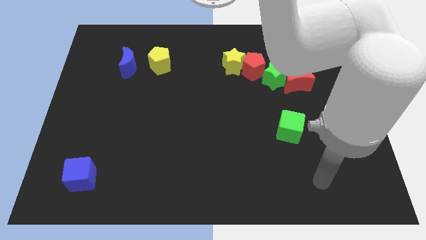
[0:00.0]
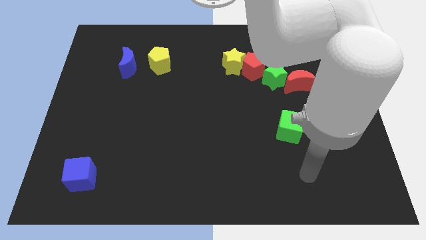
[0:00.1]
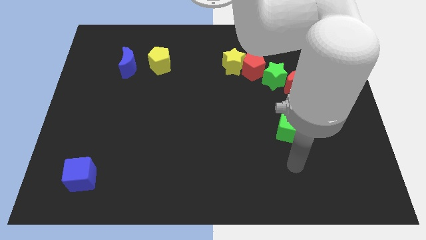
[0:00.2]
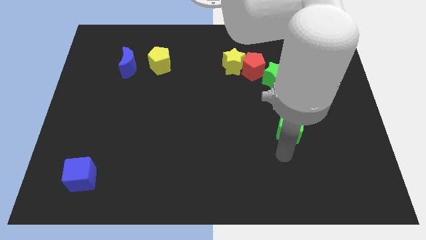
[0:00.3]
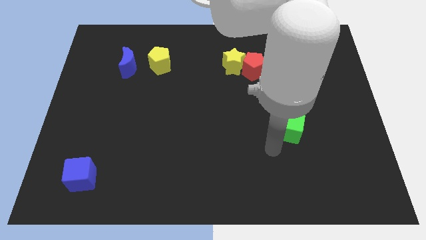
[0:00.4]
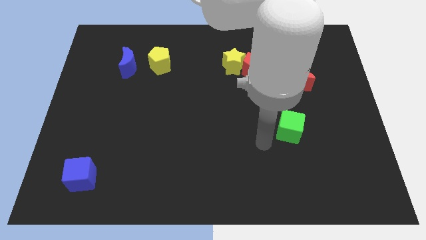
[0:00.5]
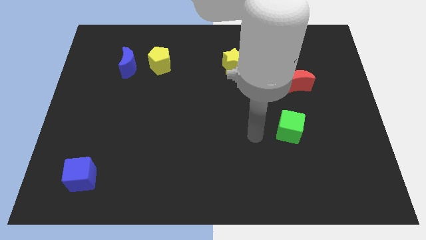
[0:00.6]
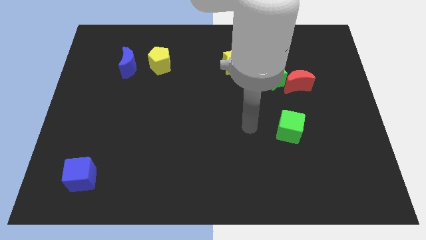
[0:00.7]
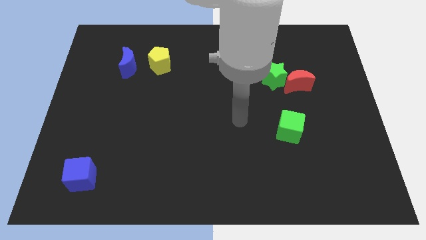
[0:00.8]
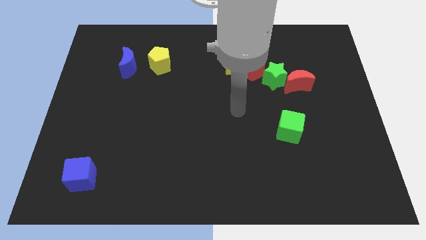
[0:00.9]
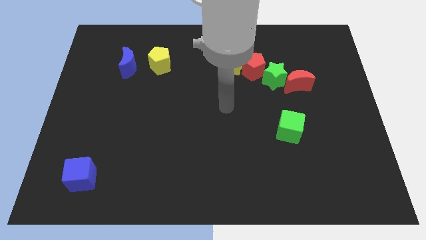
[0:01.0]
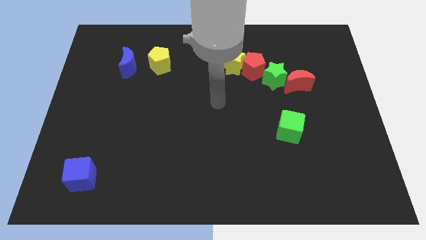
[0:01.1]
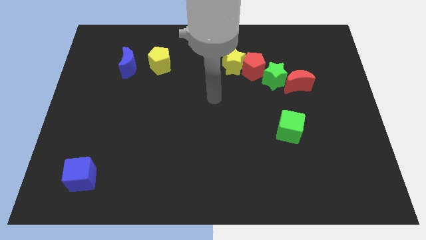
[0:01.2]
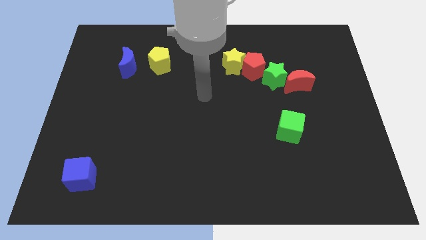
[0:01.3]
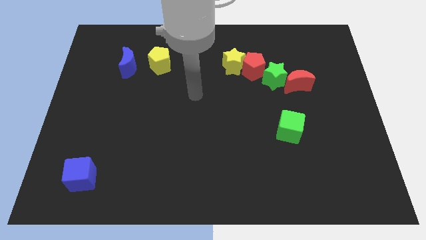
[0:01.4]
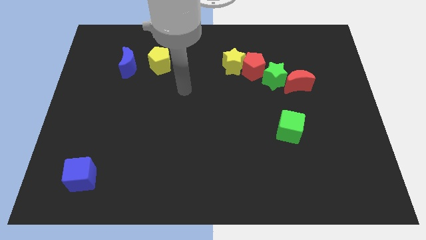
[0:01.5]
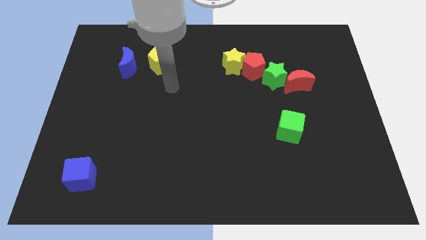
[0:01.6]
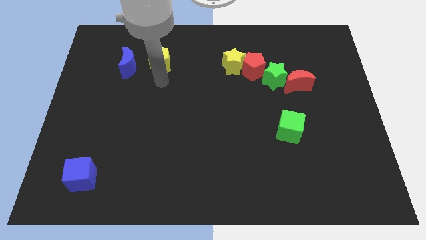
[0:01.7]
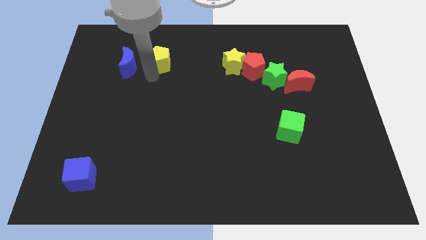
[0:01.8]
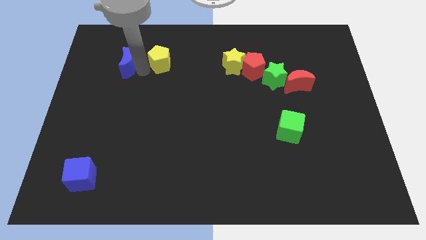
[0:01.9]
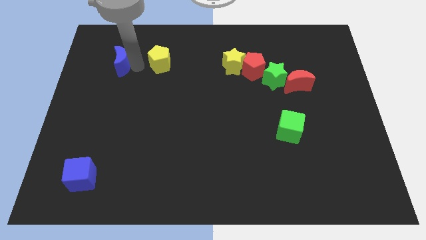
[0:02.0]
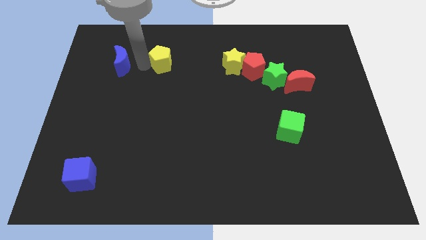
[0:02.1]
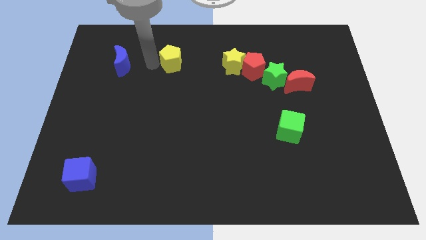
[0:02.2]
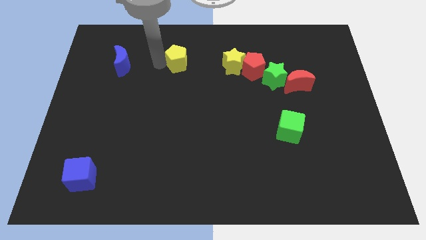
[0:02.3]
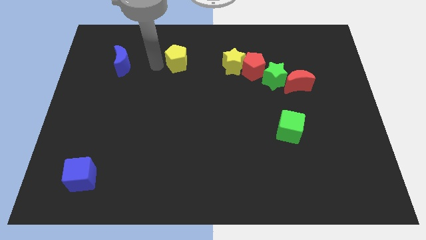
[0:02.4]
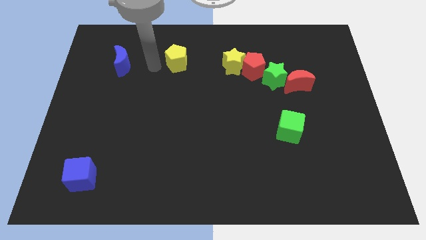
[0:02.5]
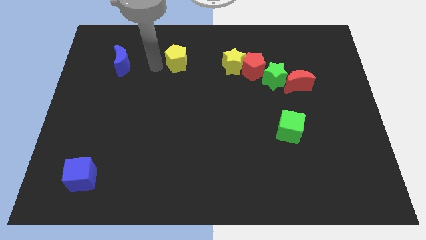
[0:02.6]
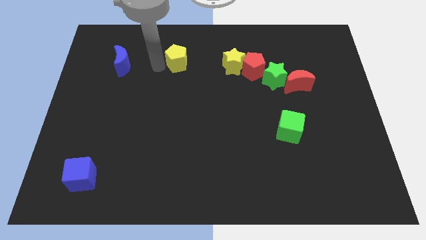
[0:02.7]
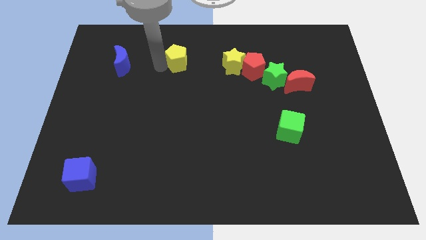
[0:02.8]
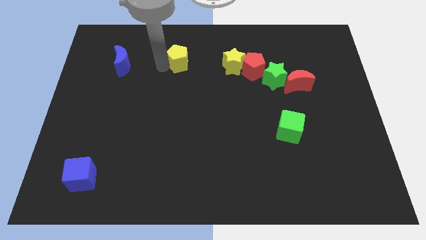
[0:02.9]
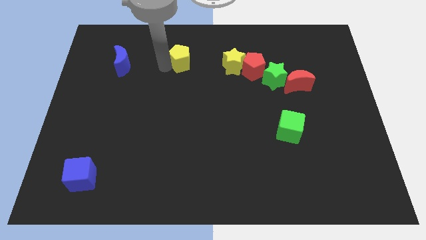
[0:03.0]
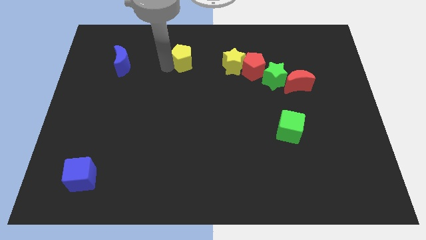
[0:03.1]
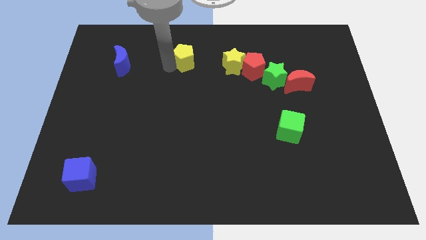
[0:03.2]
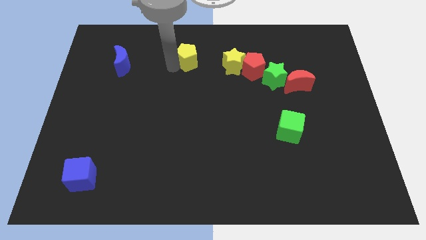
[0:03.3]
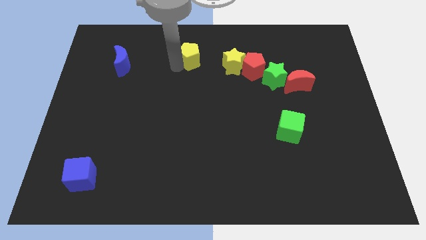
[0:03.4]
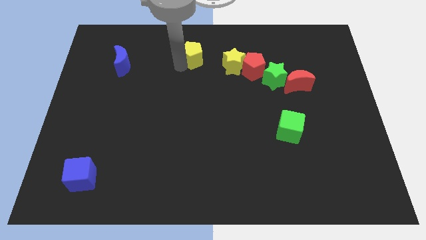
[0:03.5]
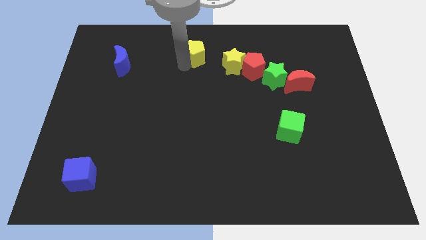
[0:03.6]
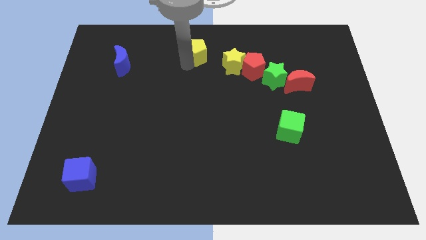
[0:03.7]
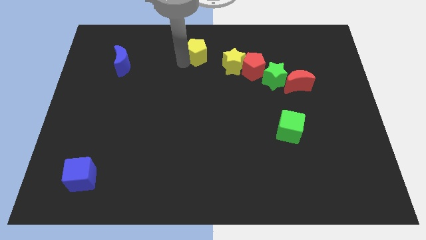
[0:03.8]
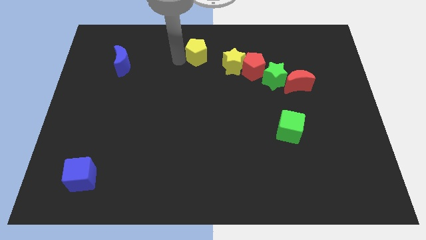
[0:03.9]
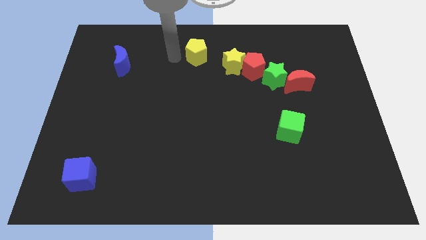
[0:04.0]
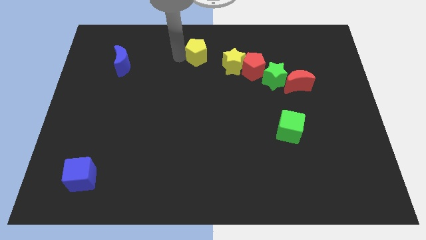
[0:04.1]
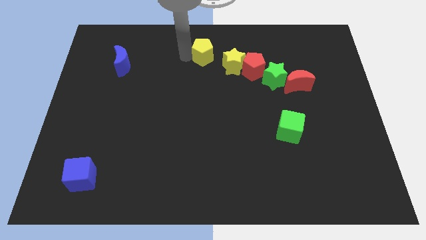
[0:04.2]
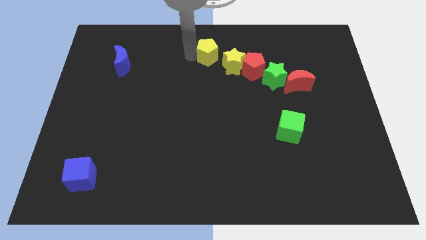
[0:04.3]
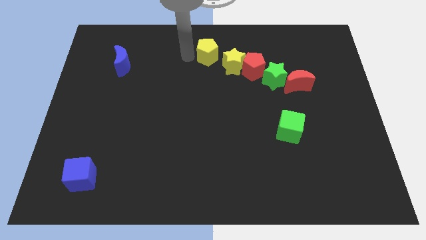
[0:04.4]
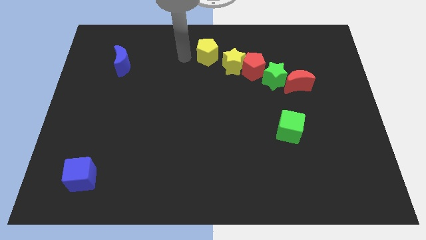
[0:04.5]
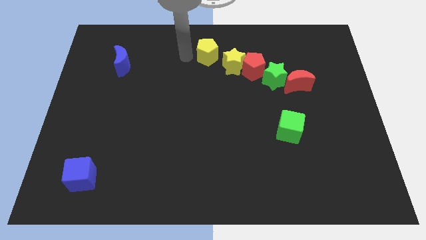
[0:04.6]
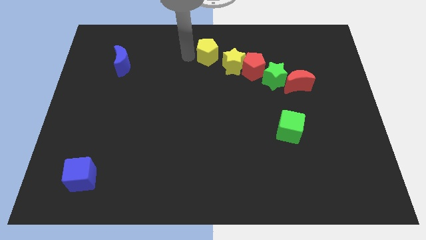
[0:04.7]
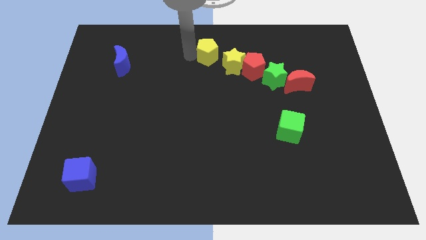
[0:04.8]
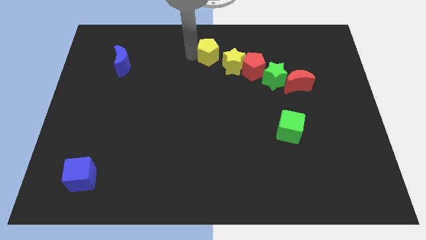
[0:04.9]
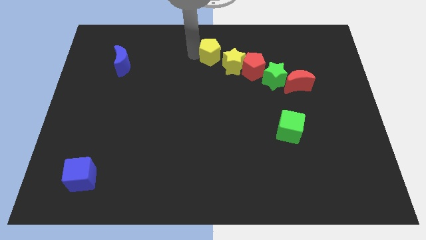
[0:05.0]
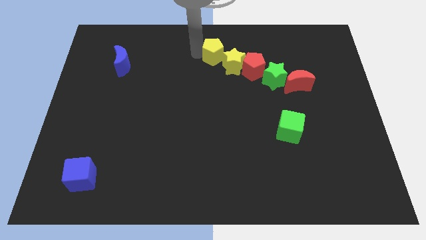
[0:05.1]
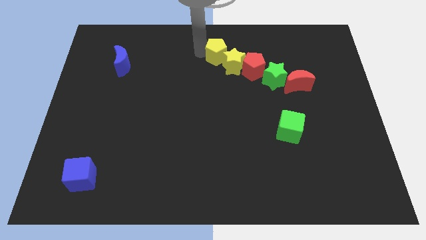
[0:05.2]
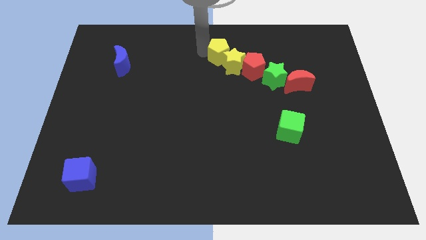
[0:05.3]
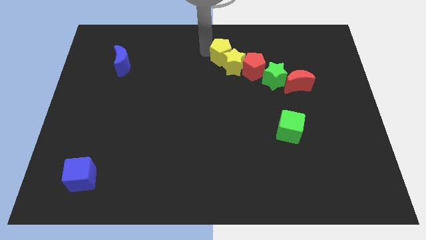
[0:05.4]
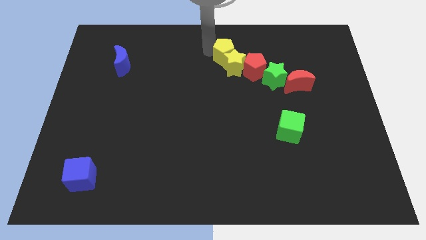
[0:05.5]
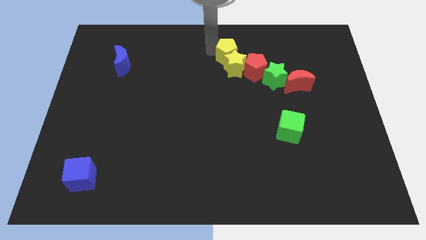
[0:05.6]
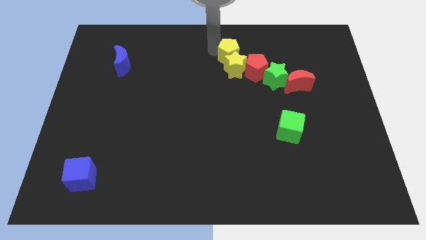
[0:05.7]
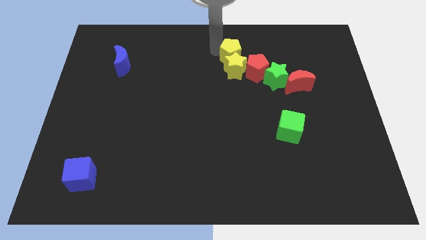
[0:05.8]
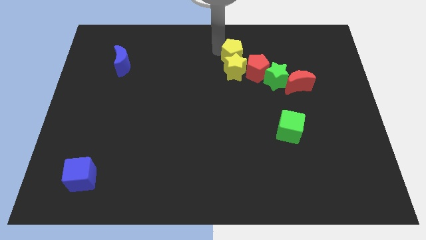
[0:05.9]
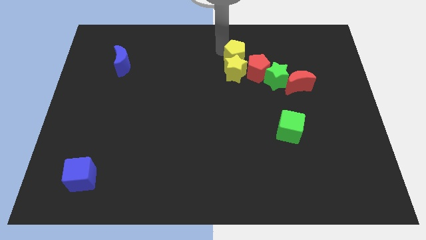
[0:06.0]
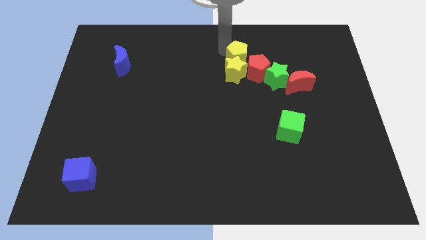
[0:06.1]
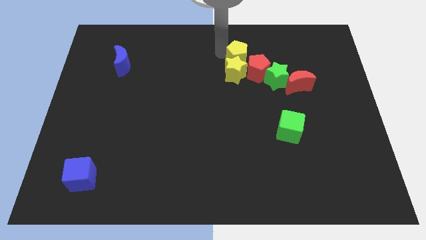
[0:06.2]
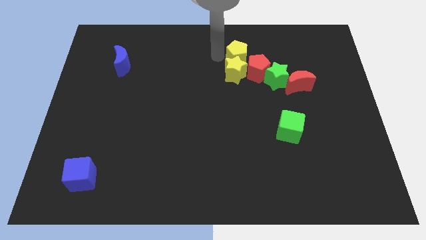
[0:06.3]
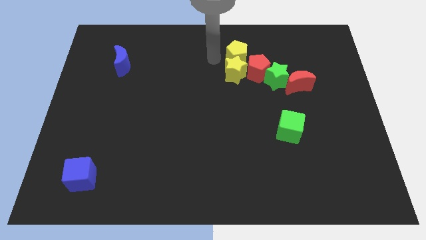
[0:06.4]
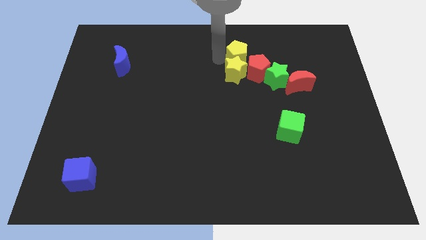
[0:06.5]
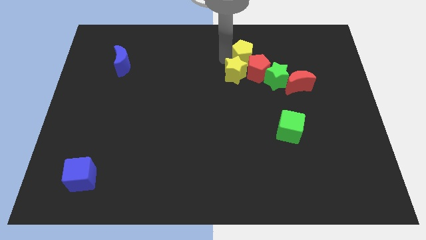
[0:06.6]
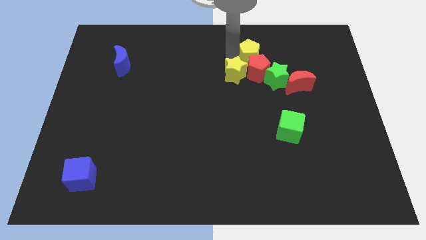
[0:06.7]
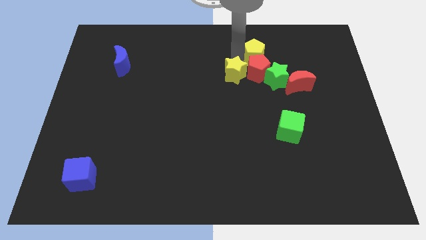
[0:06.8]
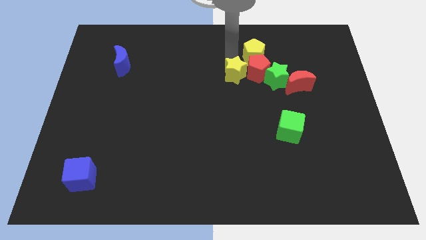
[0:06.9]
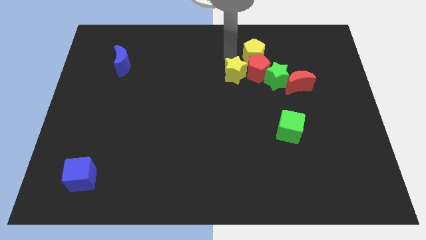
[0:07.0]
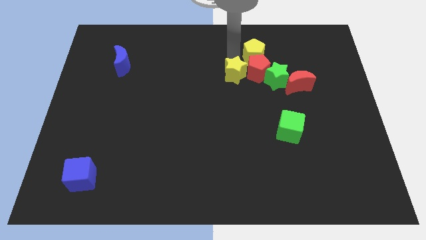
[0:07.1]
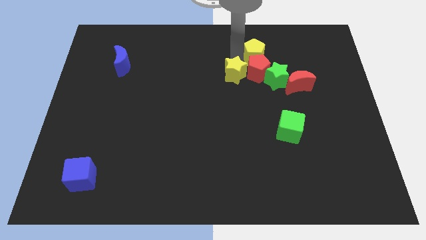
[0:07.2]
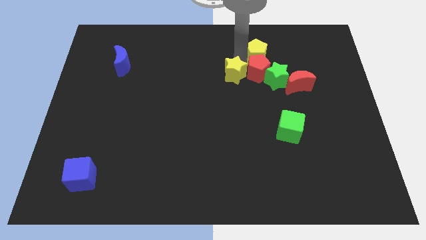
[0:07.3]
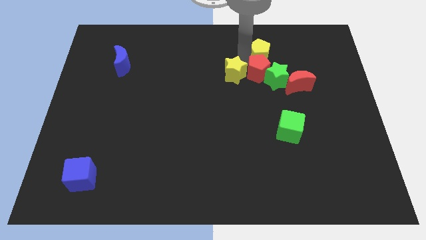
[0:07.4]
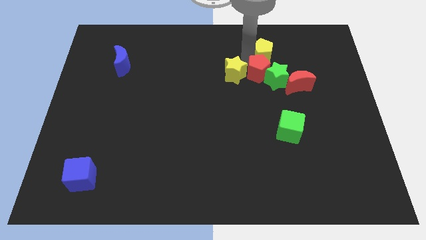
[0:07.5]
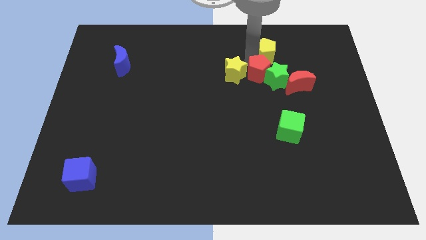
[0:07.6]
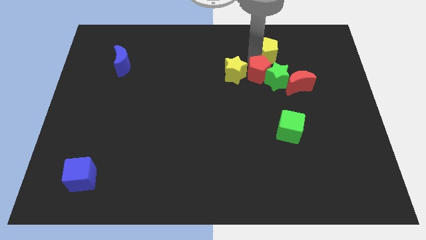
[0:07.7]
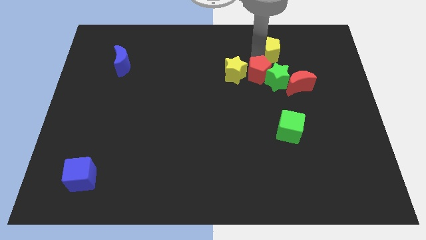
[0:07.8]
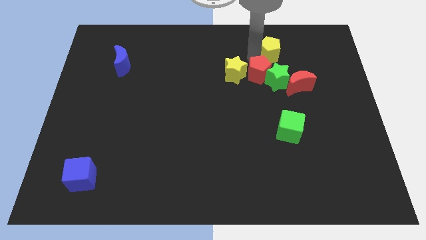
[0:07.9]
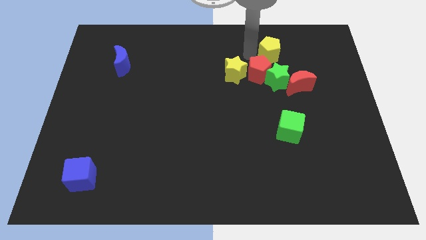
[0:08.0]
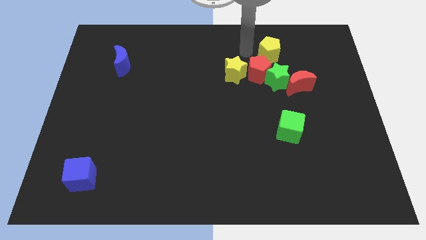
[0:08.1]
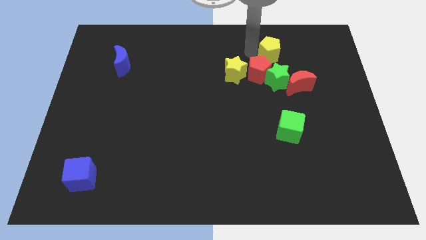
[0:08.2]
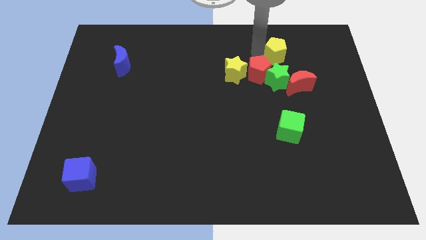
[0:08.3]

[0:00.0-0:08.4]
put the yellow pentagon above the red moon
